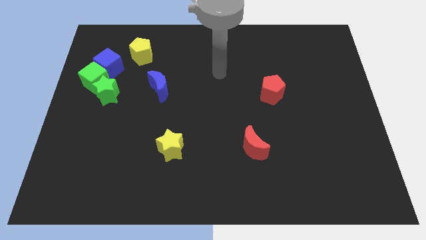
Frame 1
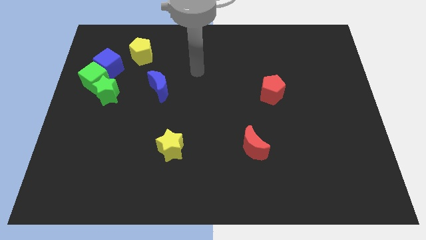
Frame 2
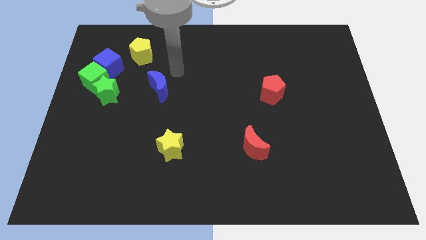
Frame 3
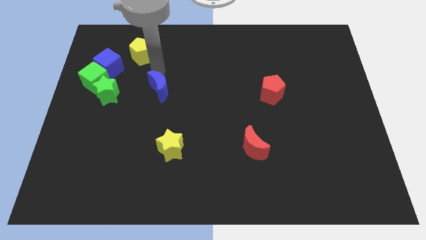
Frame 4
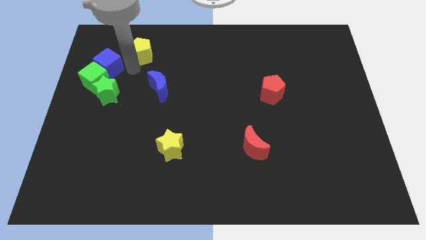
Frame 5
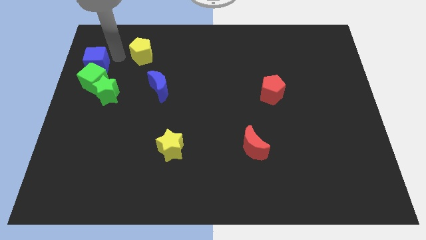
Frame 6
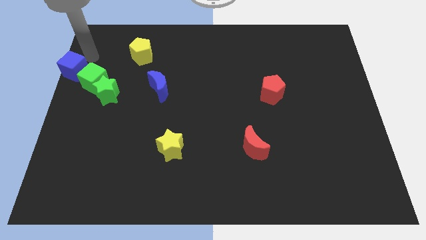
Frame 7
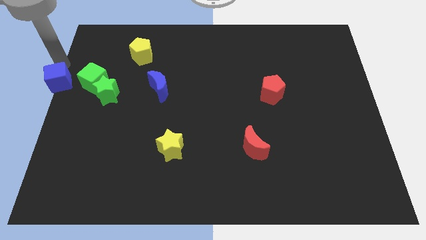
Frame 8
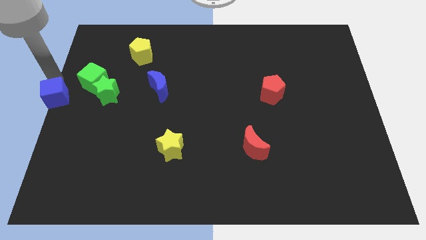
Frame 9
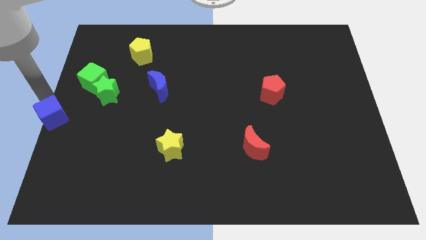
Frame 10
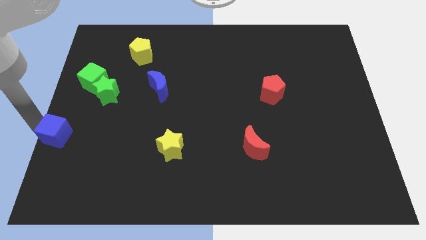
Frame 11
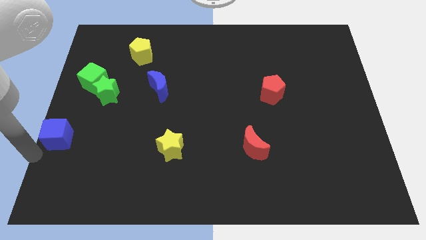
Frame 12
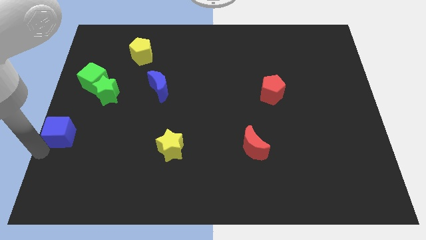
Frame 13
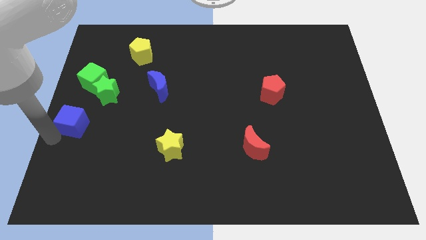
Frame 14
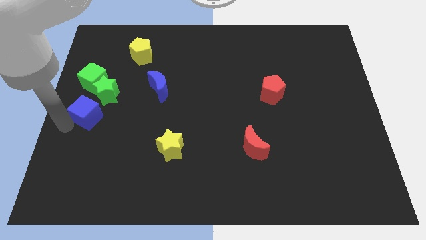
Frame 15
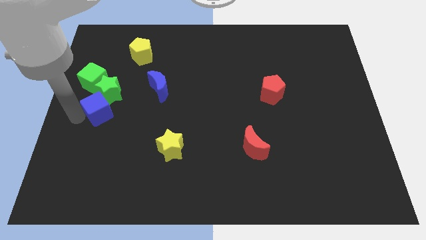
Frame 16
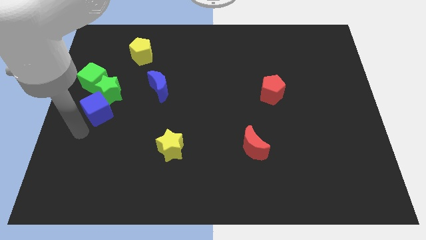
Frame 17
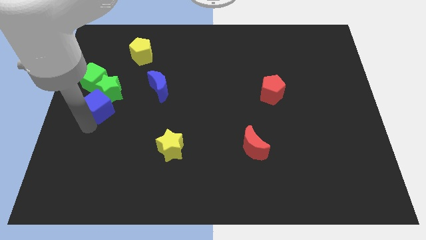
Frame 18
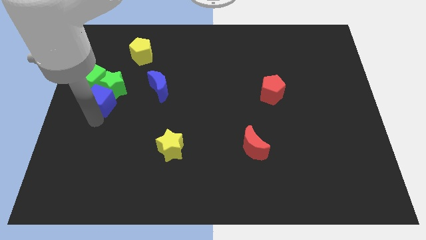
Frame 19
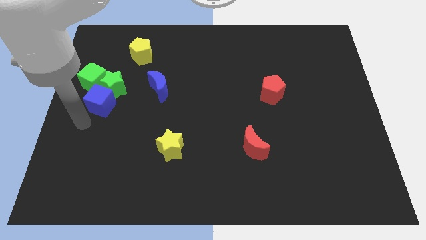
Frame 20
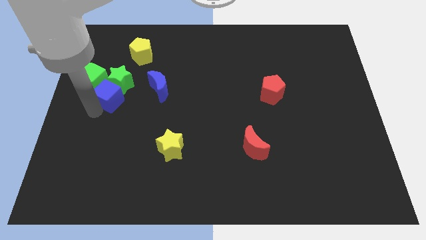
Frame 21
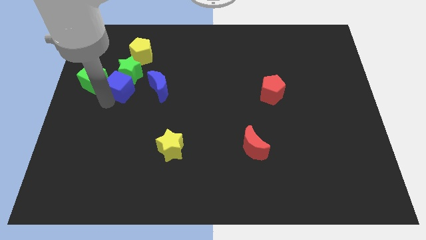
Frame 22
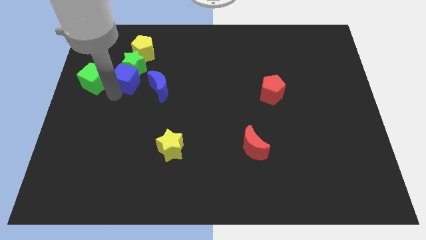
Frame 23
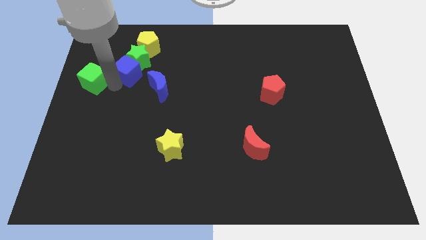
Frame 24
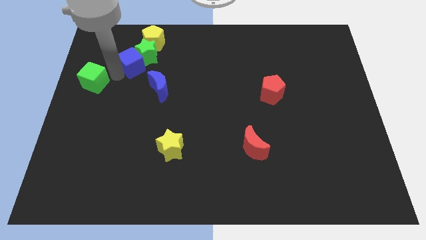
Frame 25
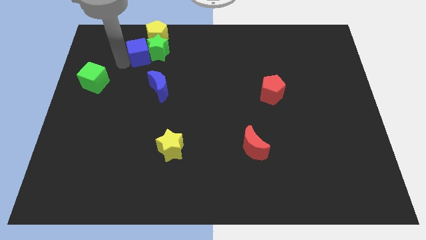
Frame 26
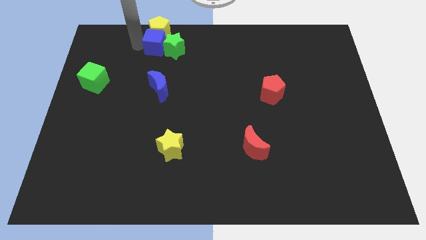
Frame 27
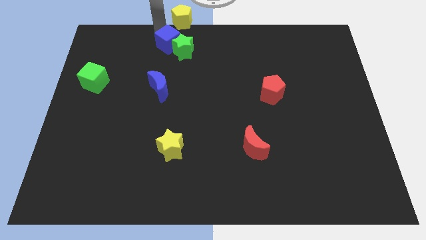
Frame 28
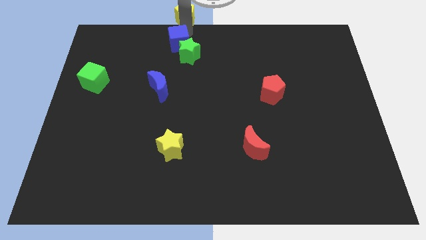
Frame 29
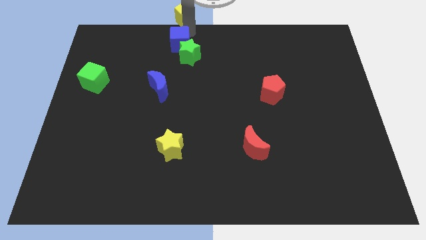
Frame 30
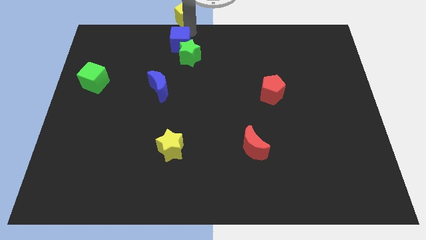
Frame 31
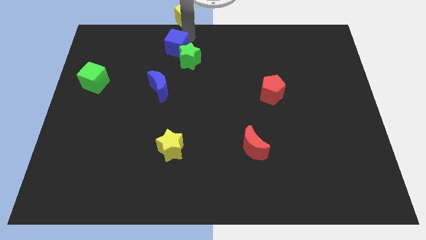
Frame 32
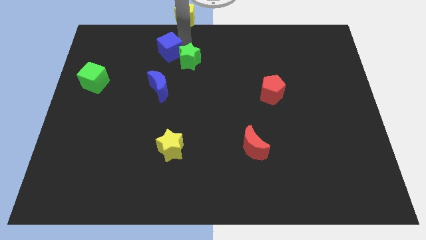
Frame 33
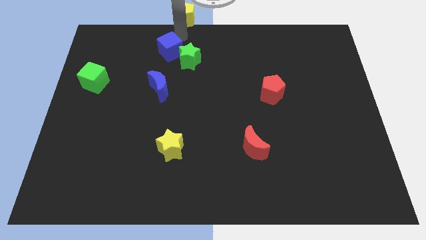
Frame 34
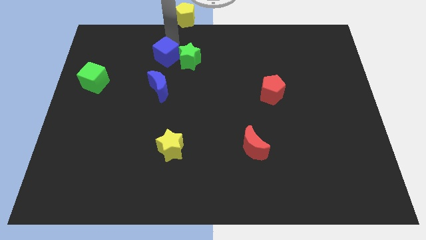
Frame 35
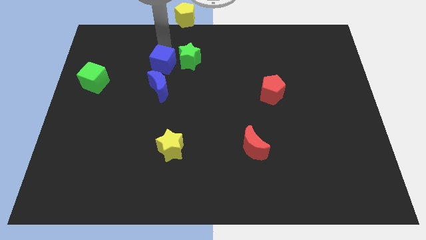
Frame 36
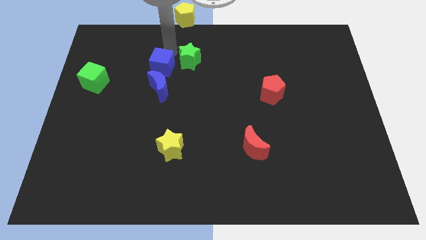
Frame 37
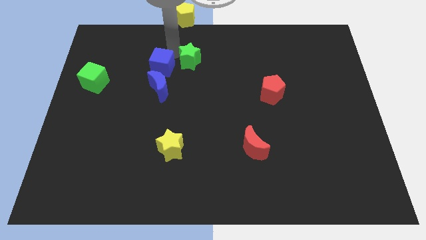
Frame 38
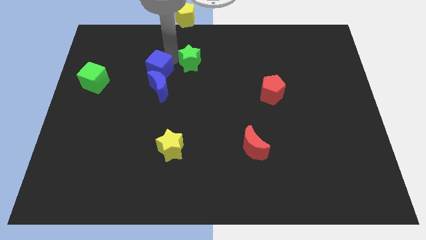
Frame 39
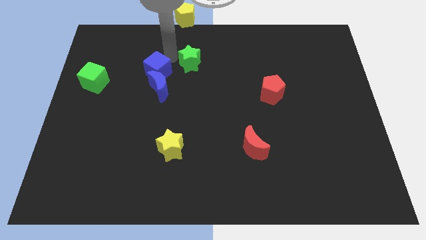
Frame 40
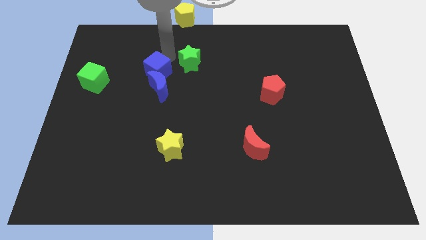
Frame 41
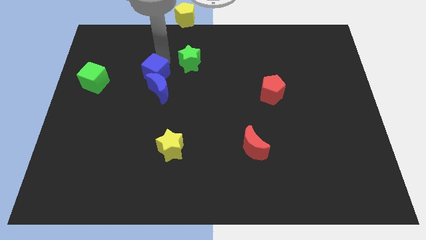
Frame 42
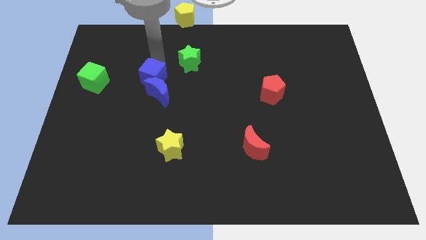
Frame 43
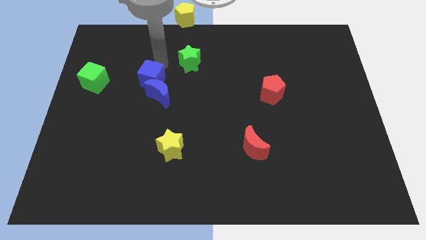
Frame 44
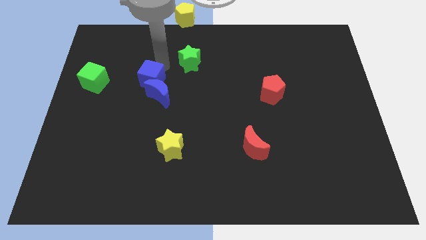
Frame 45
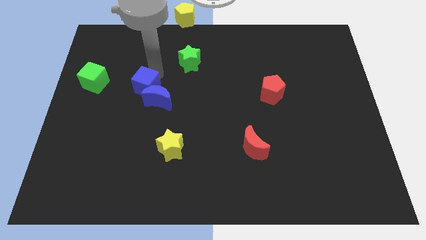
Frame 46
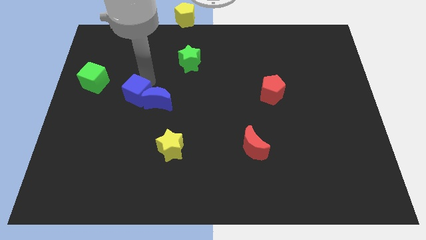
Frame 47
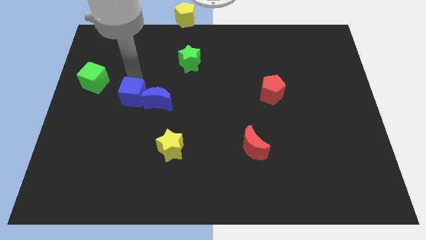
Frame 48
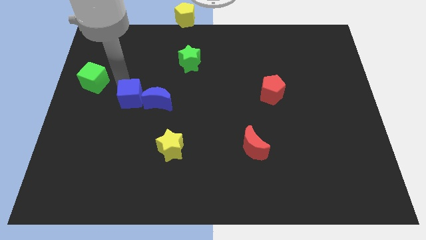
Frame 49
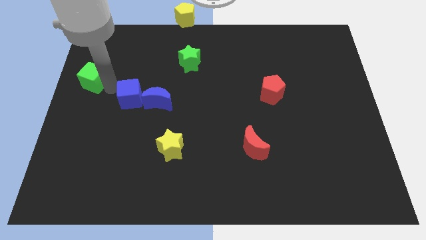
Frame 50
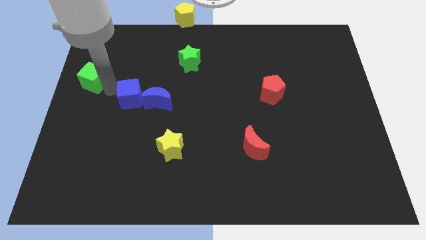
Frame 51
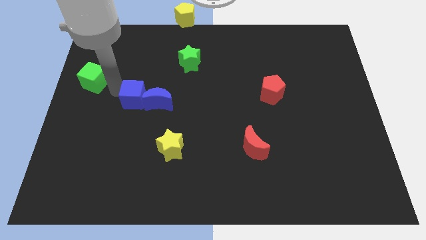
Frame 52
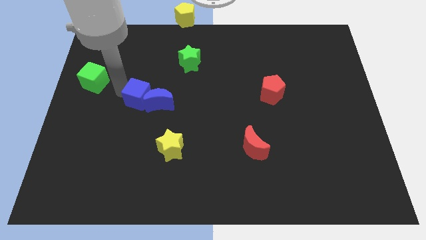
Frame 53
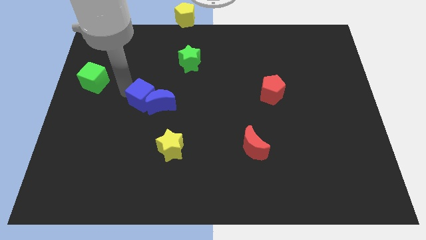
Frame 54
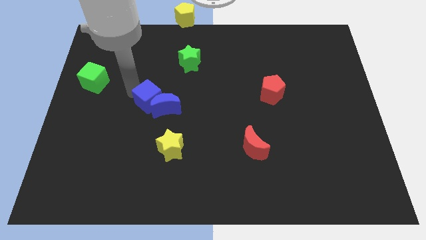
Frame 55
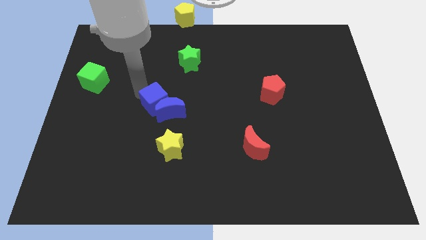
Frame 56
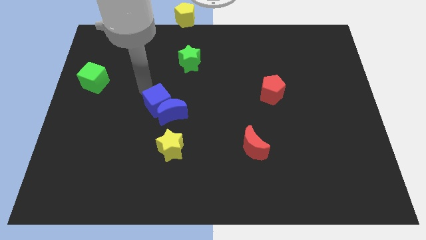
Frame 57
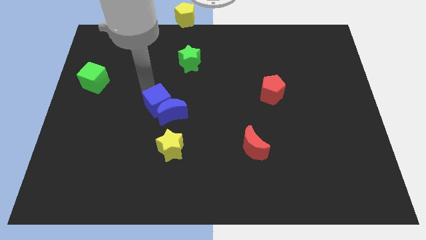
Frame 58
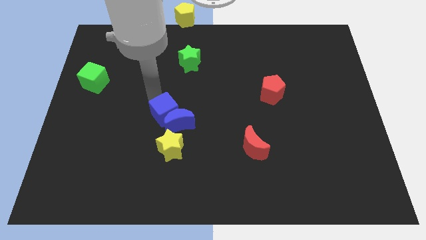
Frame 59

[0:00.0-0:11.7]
move the blue cube diagonally downwards and right

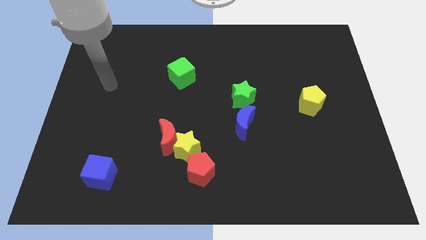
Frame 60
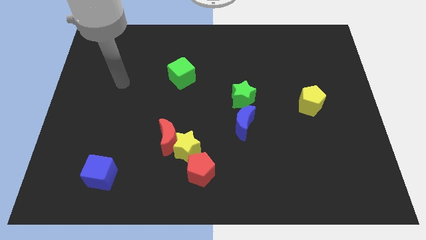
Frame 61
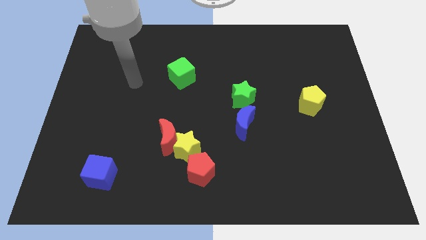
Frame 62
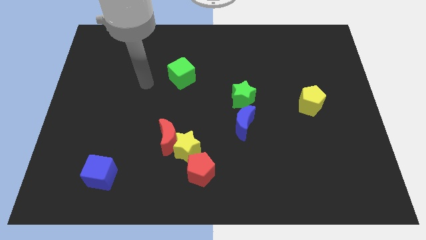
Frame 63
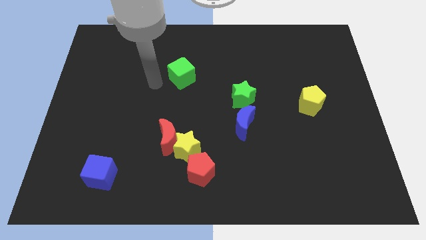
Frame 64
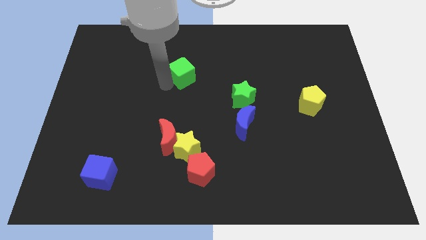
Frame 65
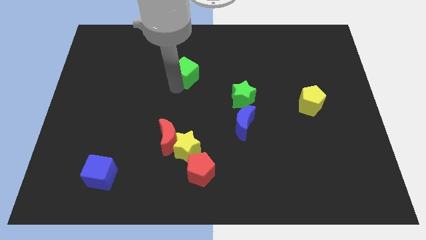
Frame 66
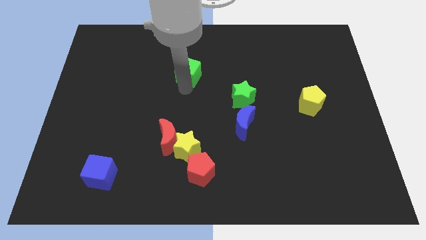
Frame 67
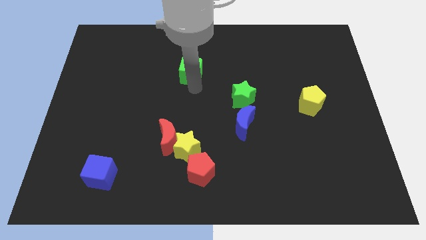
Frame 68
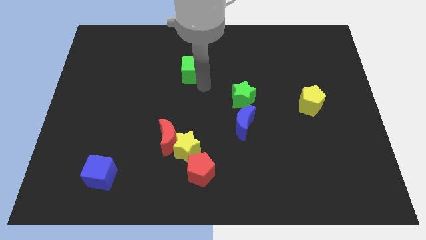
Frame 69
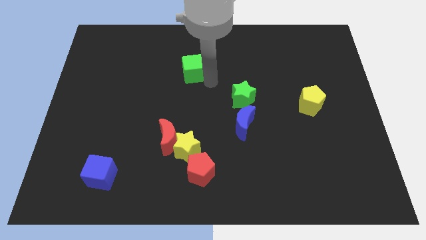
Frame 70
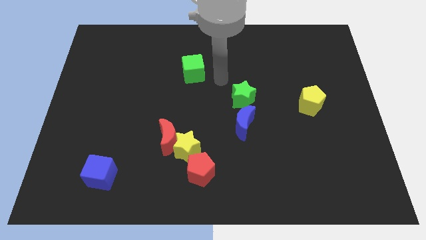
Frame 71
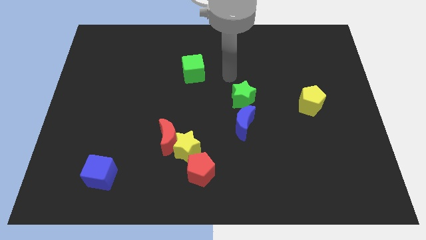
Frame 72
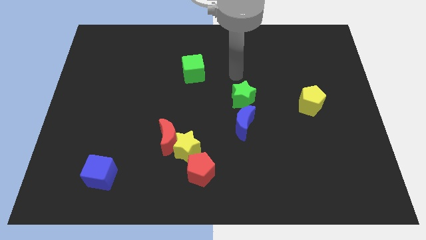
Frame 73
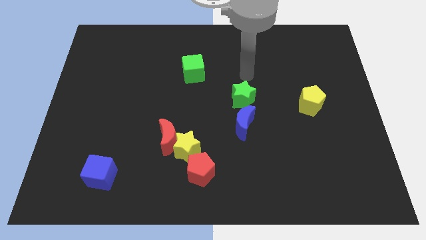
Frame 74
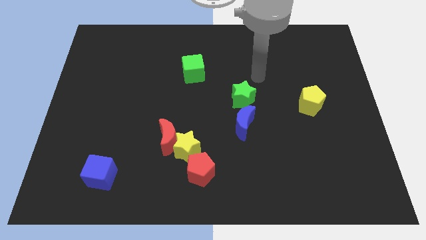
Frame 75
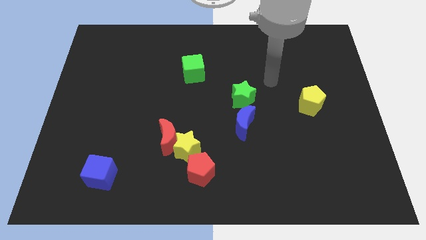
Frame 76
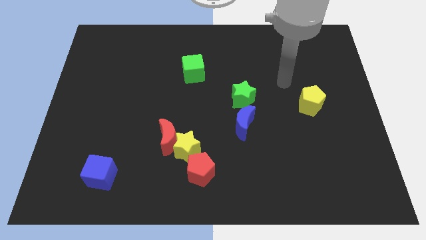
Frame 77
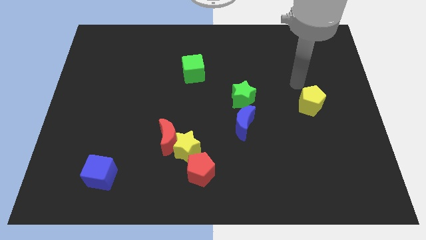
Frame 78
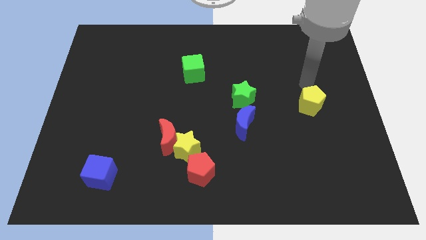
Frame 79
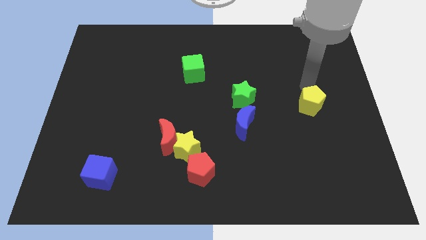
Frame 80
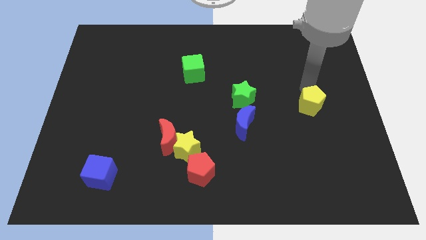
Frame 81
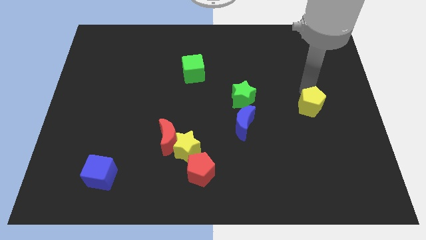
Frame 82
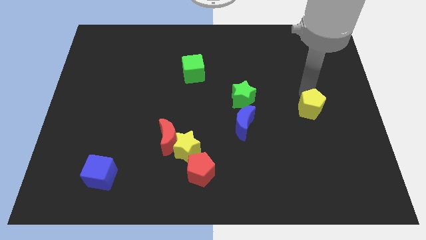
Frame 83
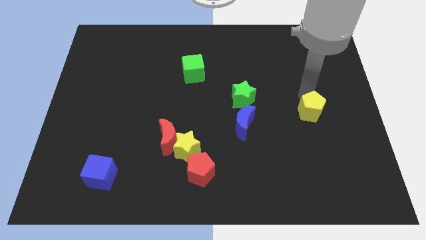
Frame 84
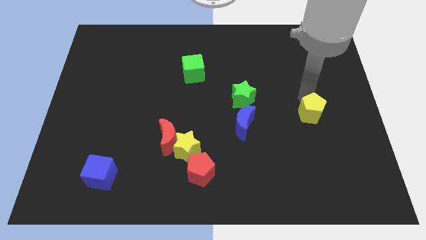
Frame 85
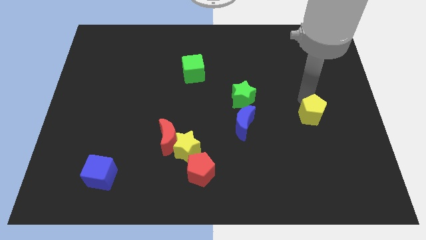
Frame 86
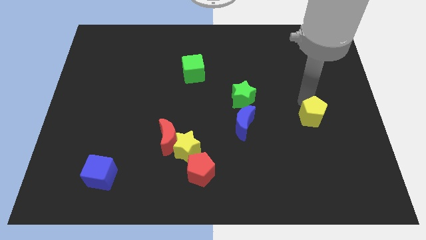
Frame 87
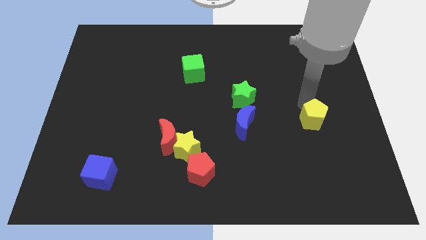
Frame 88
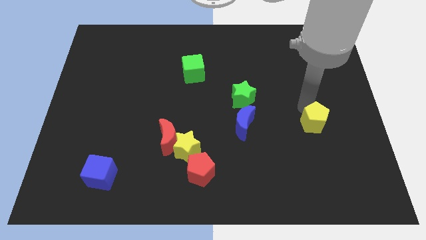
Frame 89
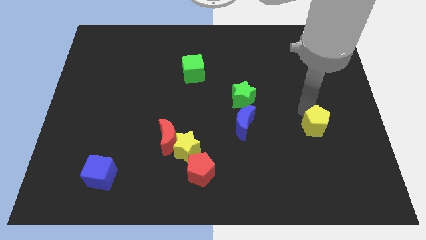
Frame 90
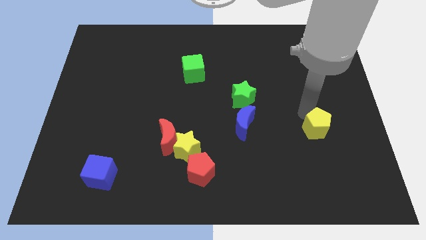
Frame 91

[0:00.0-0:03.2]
push the yellow pentagon down somewhat
